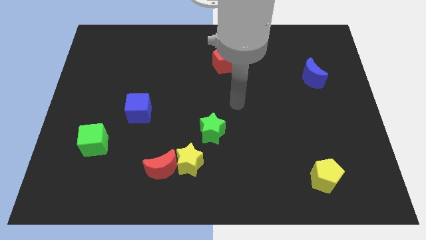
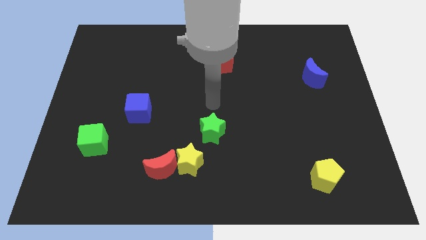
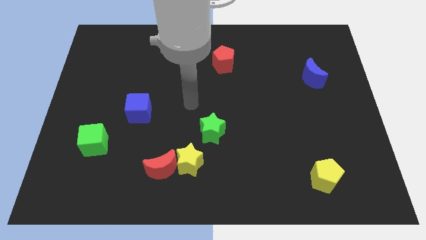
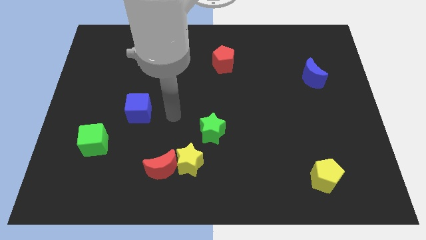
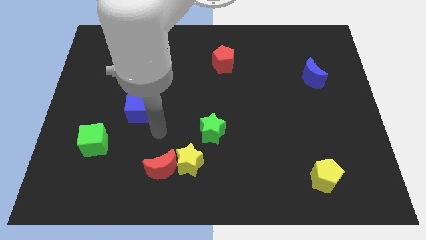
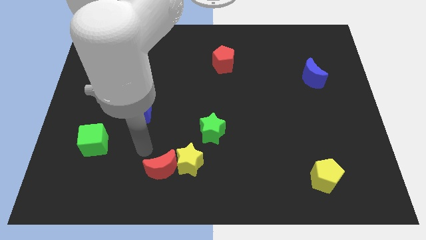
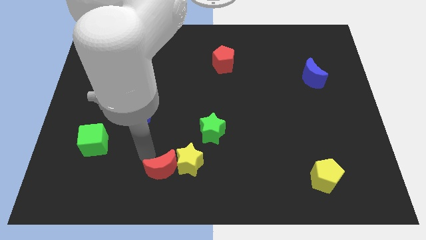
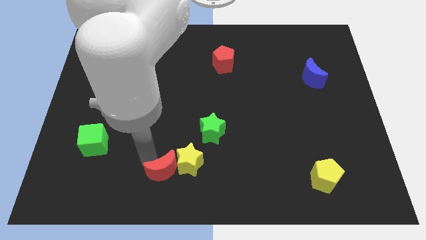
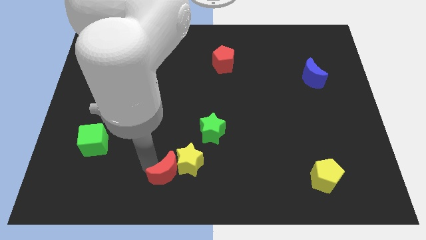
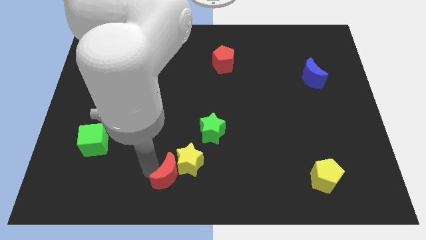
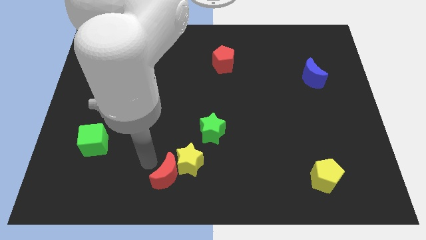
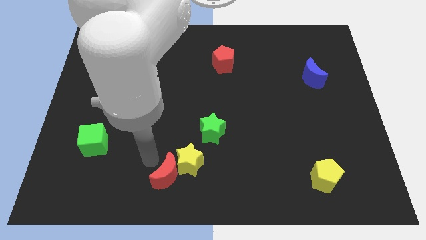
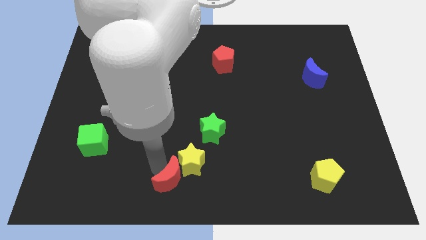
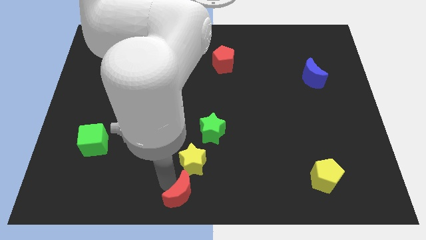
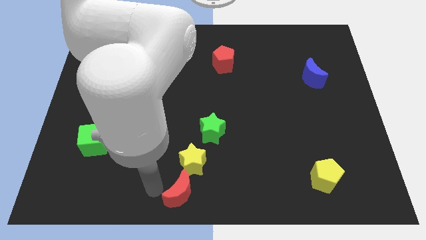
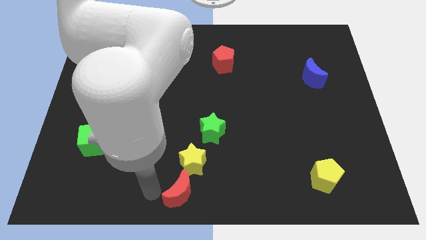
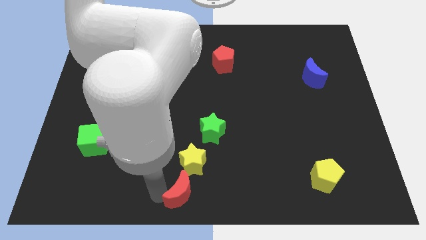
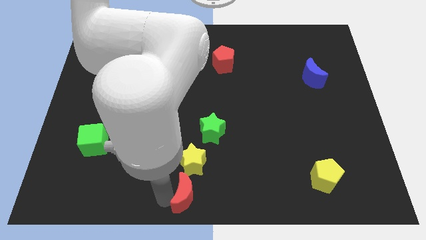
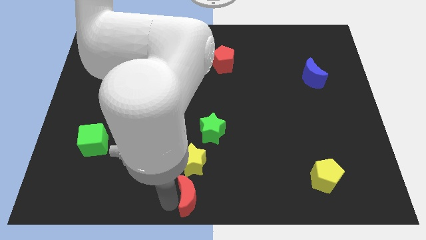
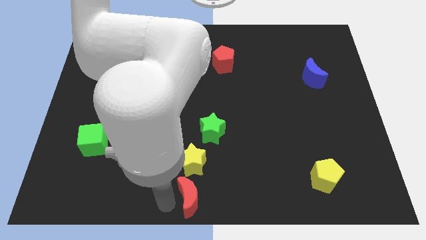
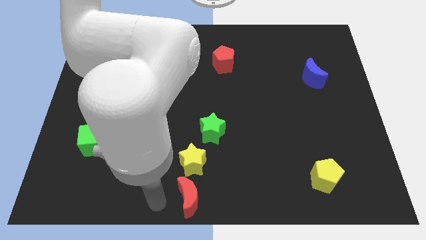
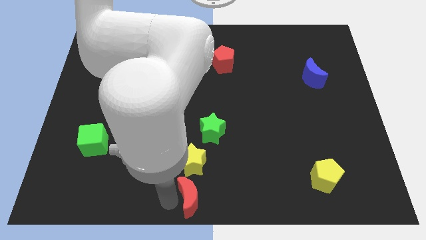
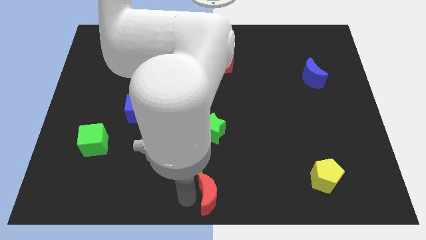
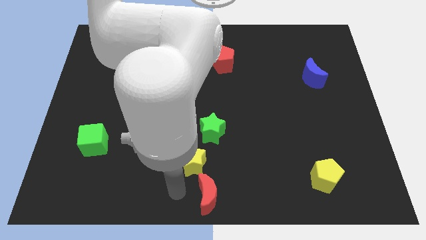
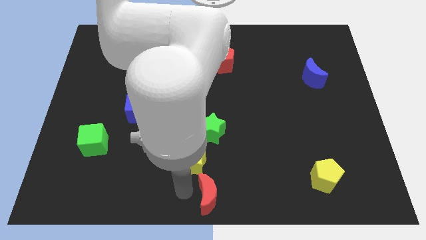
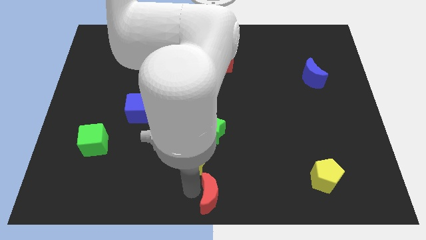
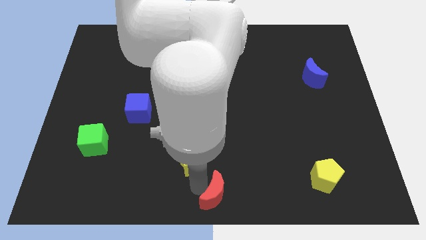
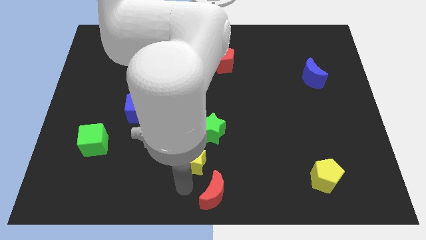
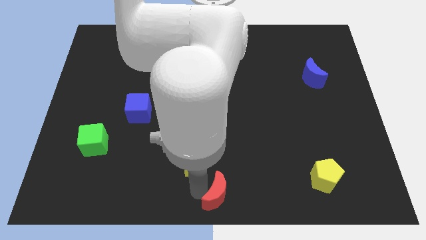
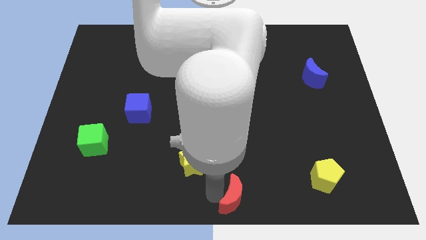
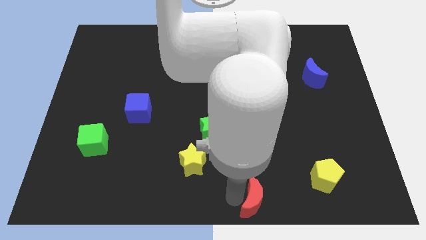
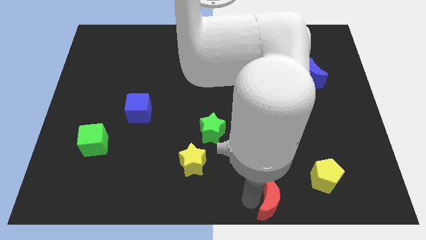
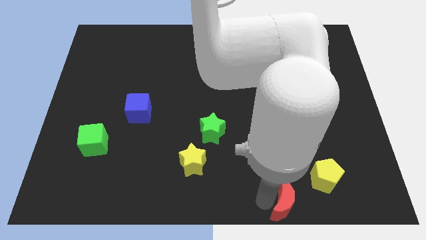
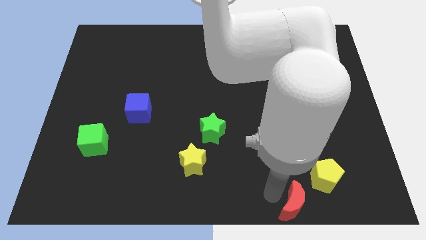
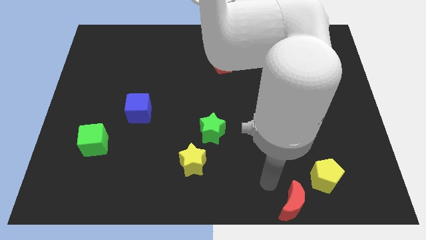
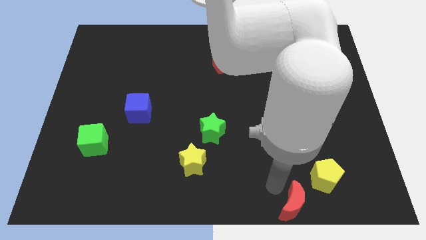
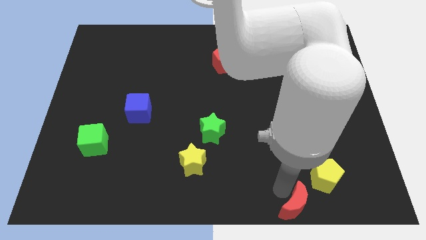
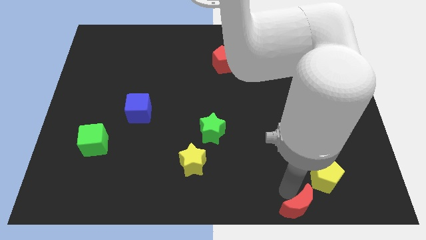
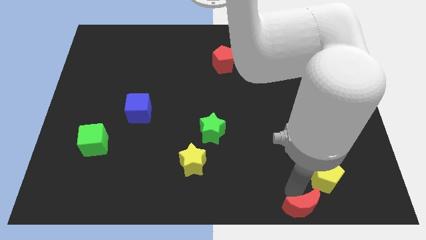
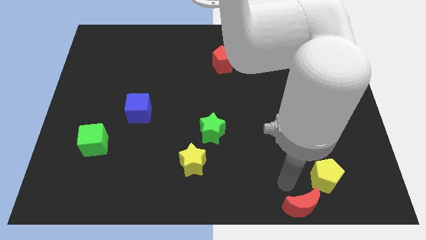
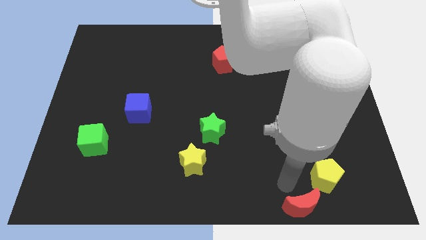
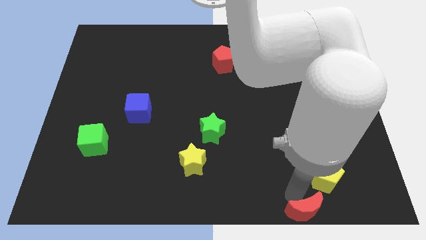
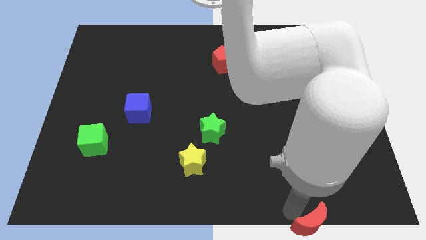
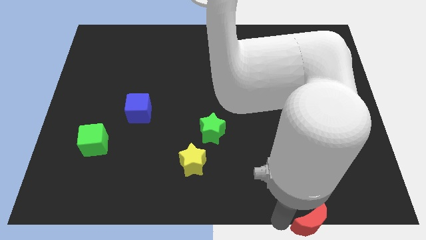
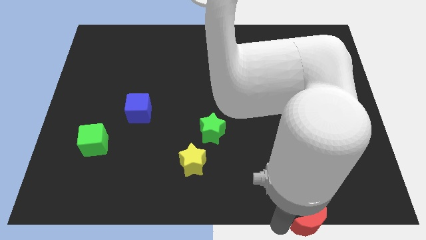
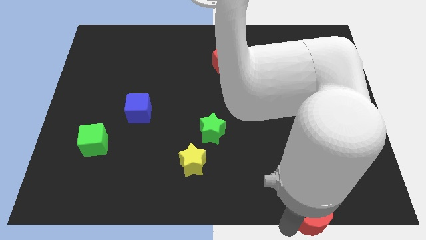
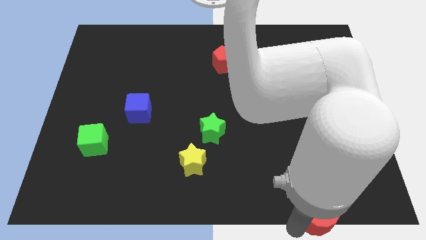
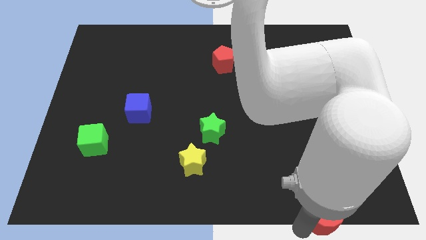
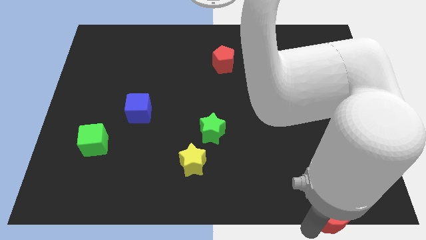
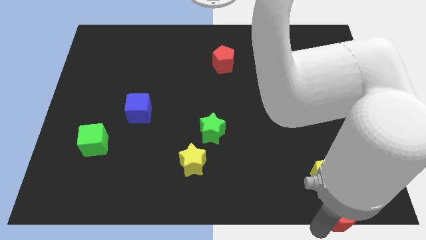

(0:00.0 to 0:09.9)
put the red moon to the bottom right of the board

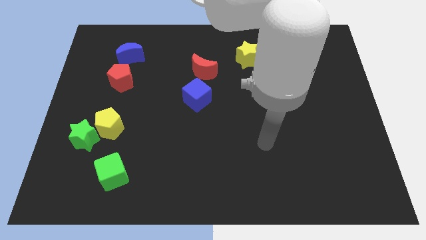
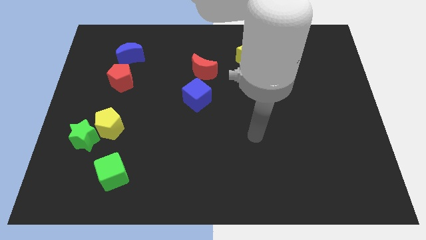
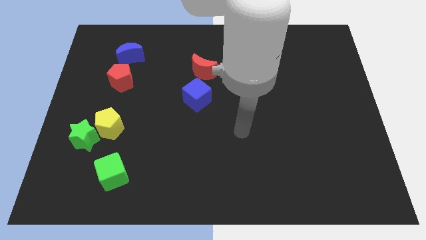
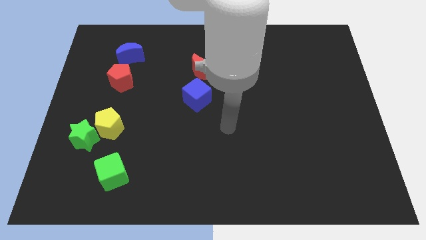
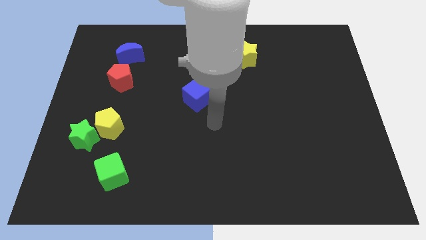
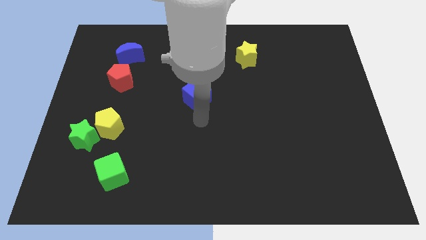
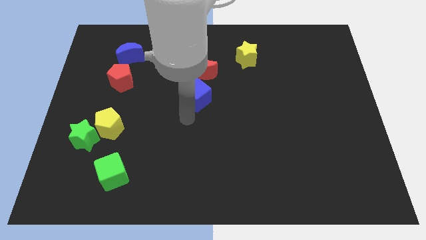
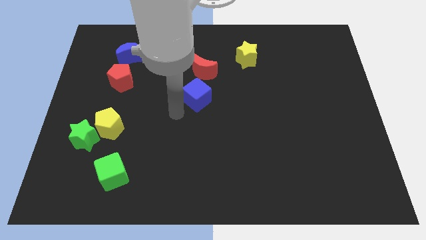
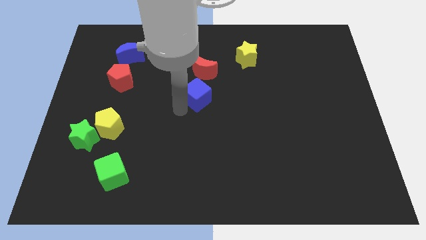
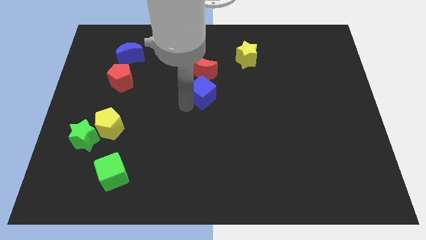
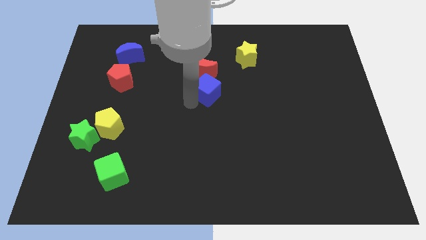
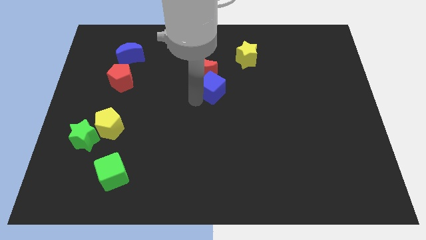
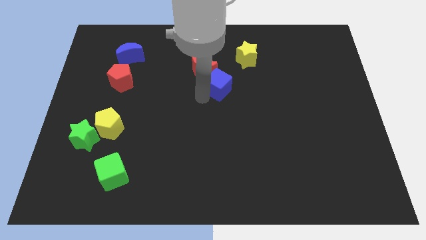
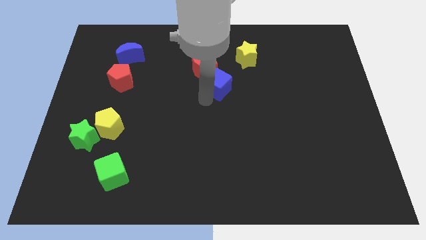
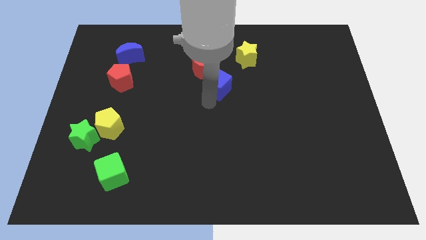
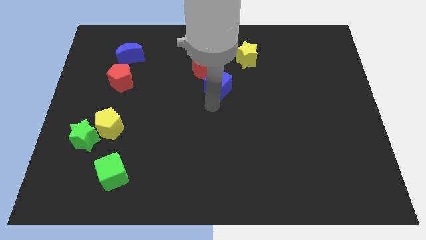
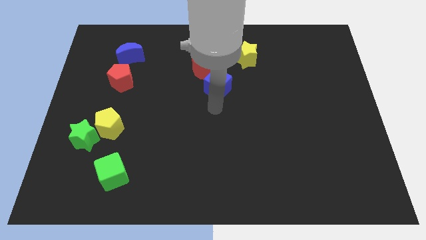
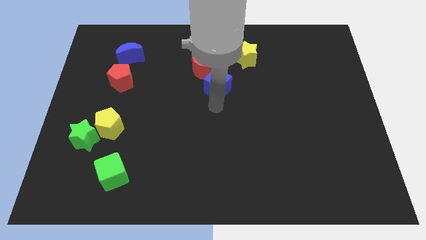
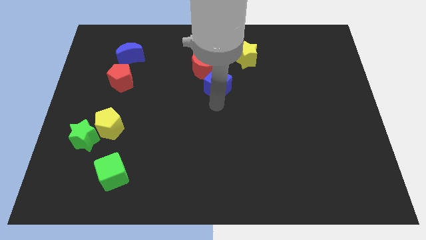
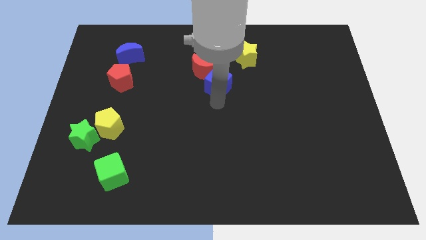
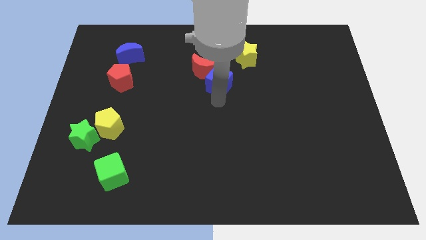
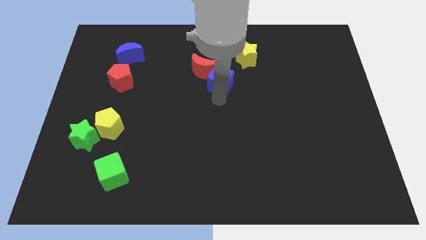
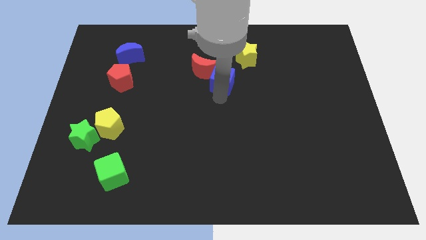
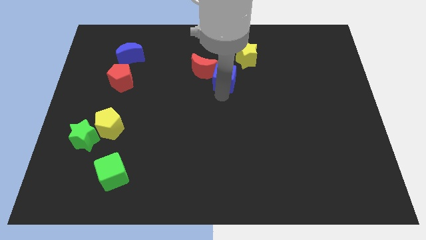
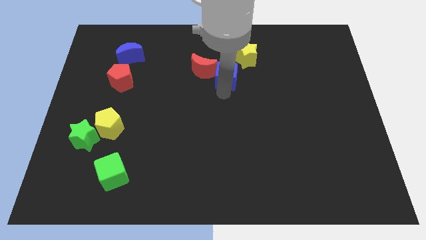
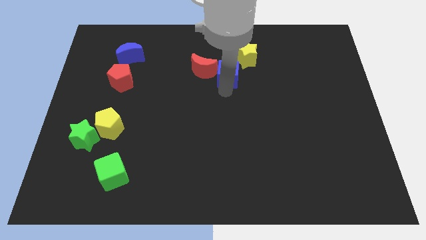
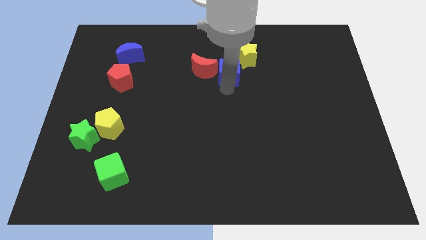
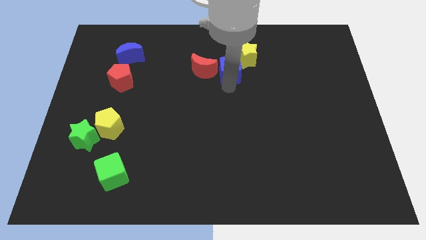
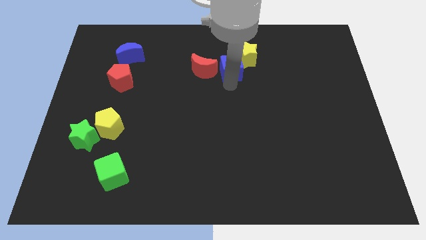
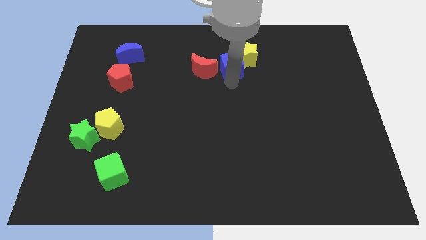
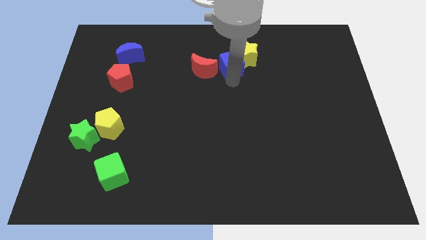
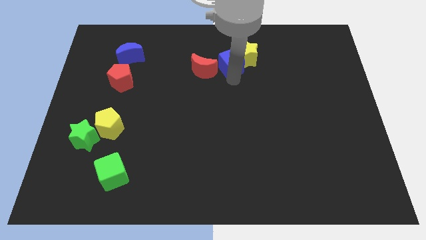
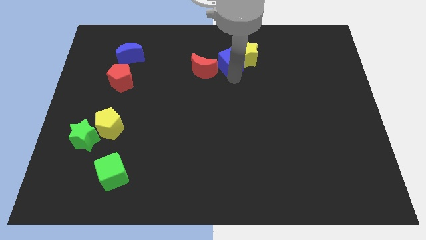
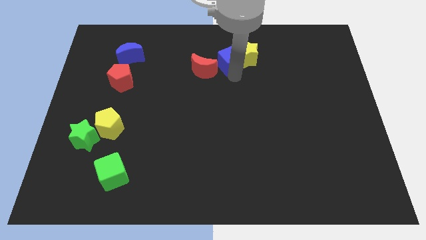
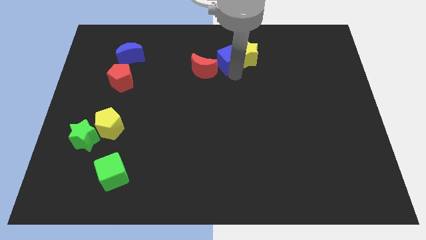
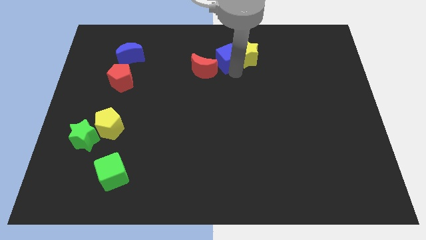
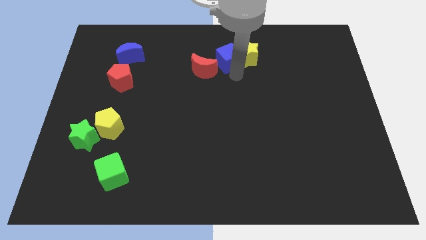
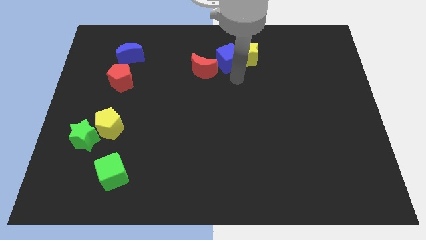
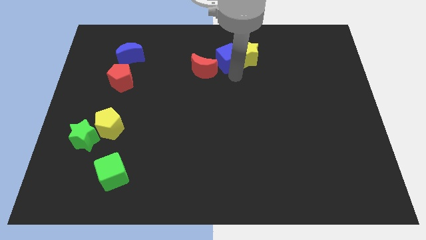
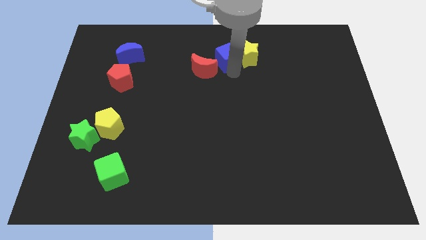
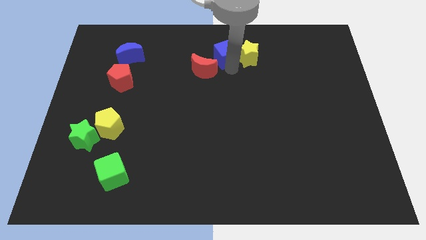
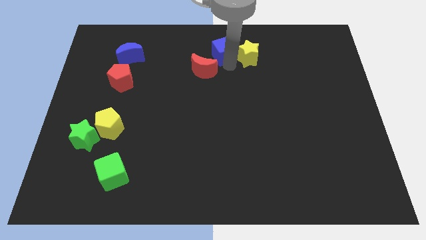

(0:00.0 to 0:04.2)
move the blue cube to the top side
